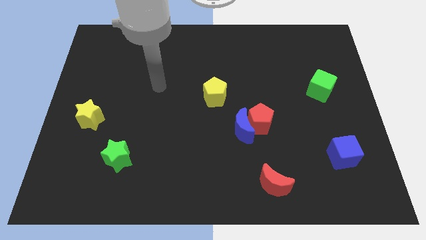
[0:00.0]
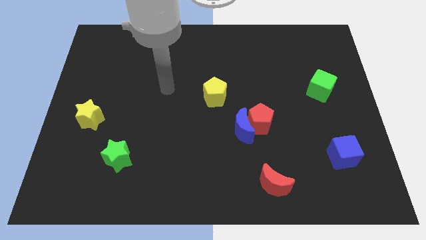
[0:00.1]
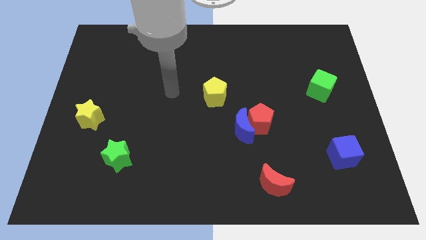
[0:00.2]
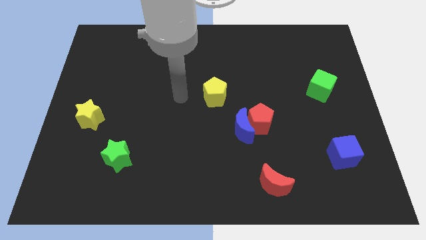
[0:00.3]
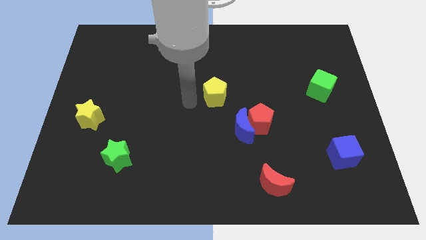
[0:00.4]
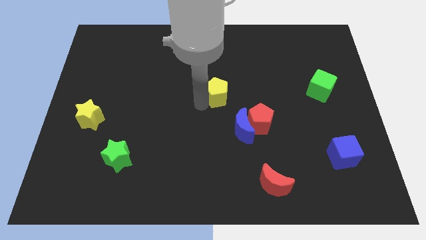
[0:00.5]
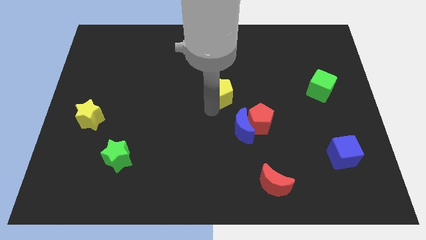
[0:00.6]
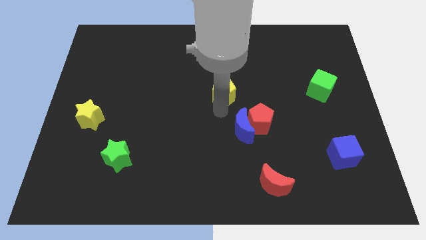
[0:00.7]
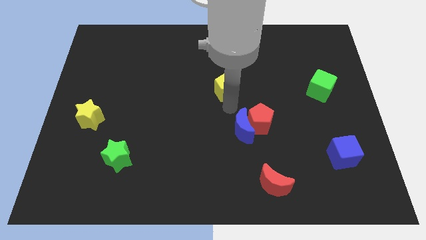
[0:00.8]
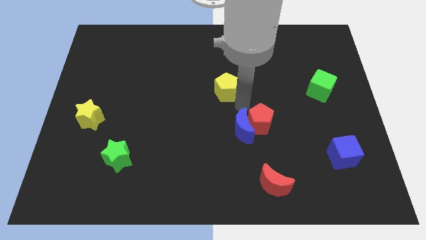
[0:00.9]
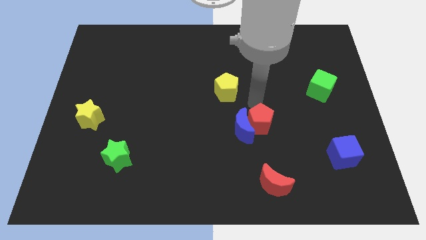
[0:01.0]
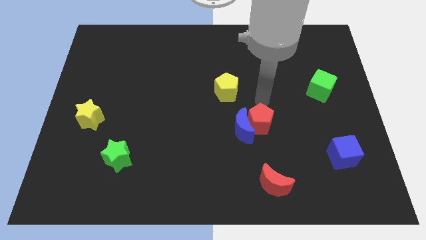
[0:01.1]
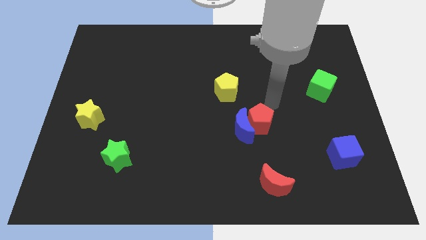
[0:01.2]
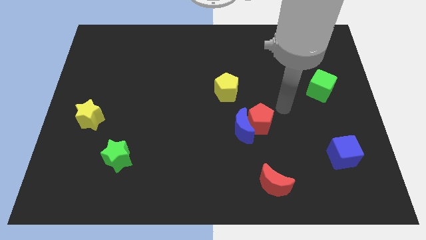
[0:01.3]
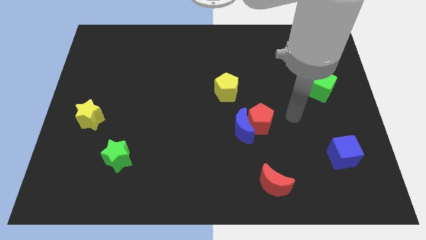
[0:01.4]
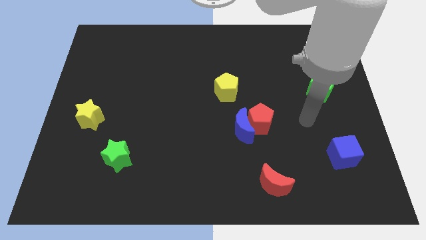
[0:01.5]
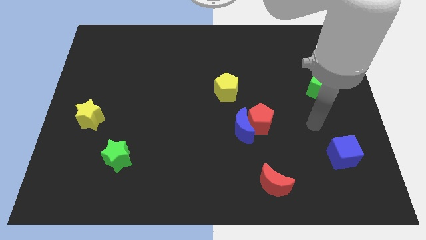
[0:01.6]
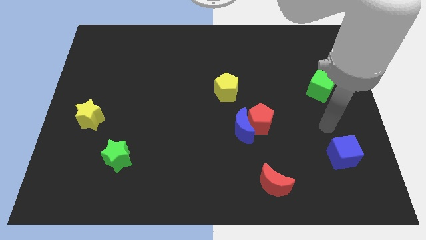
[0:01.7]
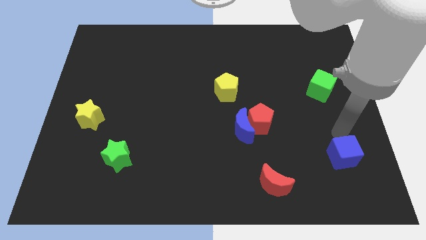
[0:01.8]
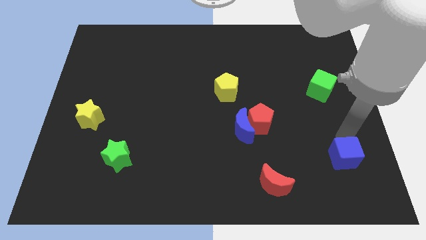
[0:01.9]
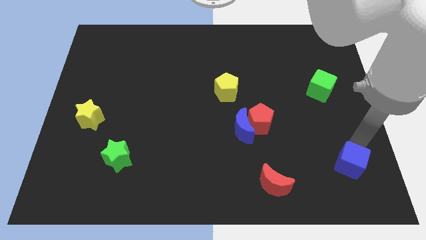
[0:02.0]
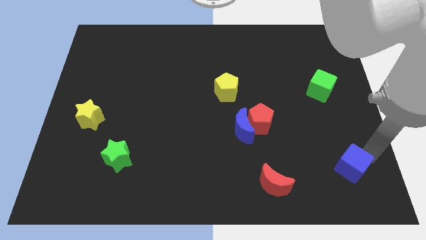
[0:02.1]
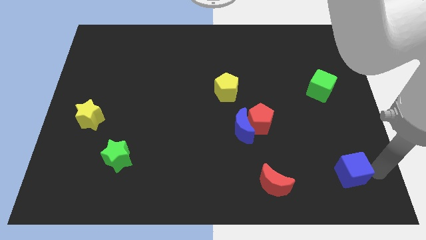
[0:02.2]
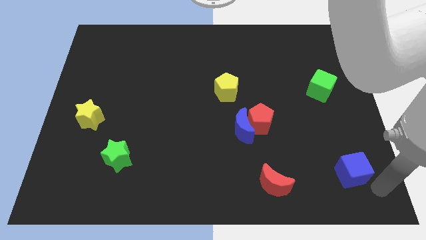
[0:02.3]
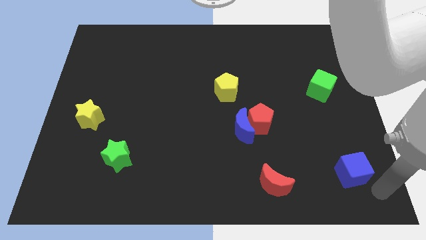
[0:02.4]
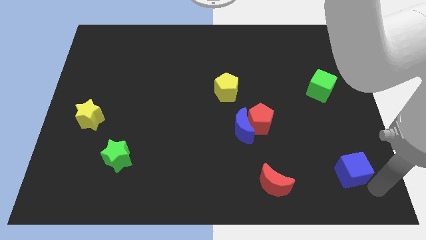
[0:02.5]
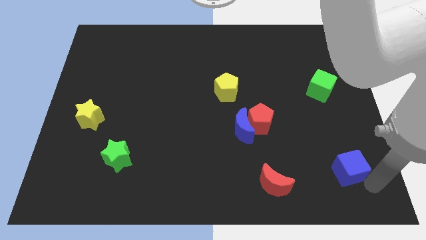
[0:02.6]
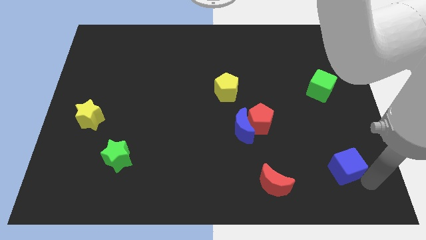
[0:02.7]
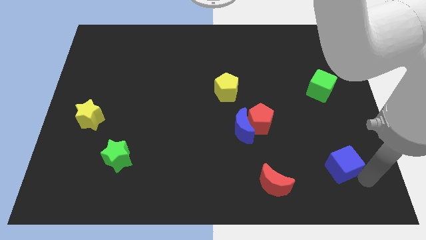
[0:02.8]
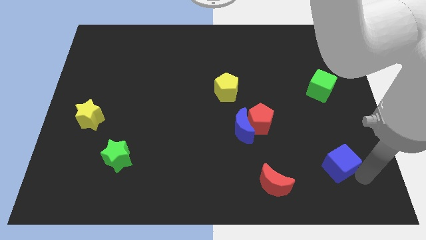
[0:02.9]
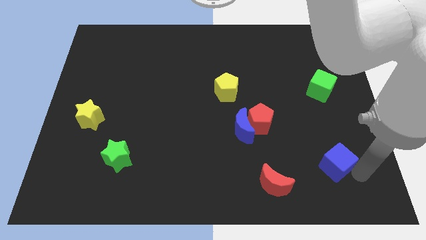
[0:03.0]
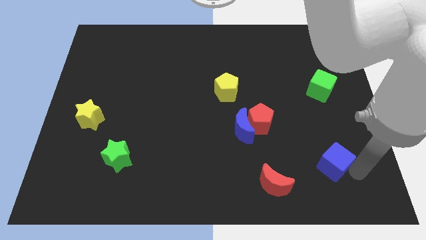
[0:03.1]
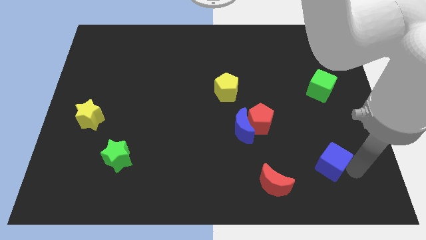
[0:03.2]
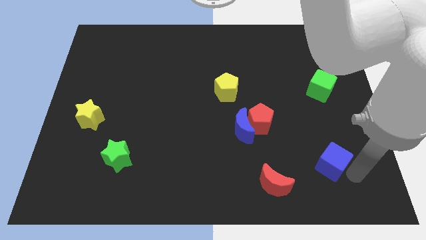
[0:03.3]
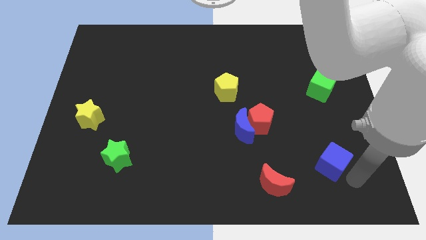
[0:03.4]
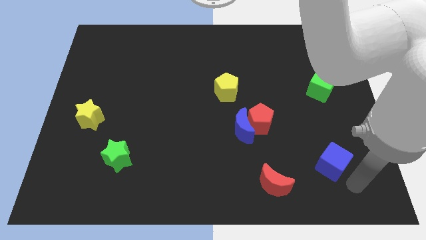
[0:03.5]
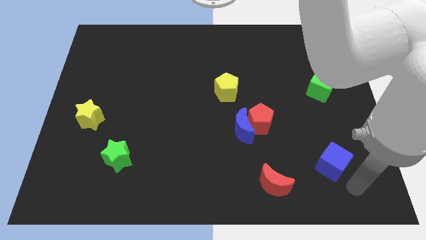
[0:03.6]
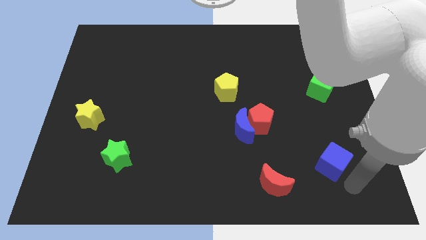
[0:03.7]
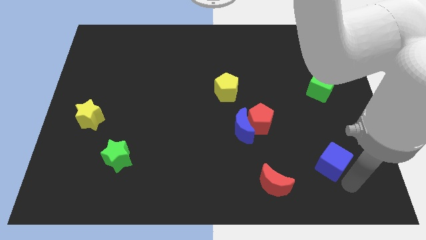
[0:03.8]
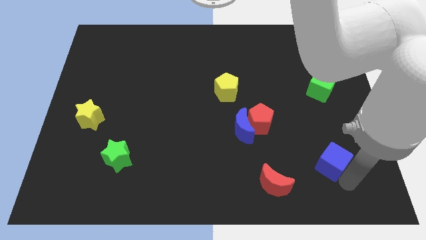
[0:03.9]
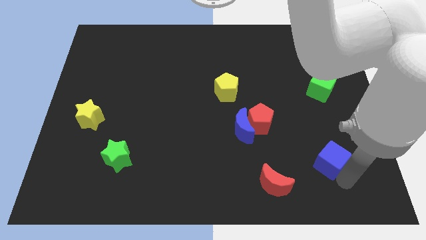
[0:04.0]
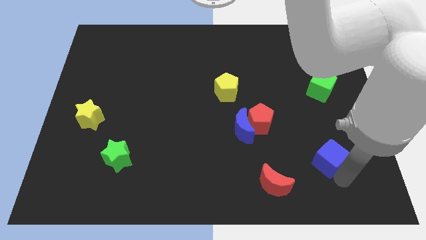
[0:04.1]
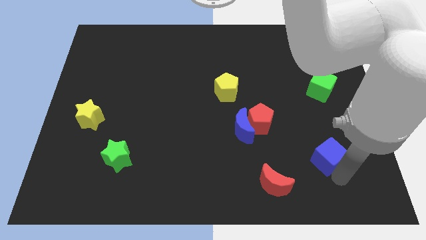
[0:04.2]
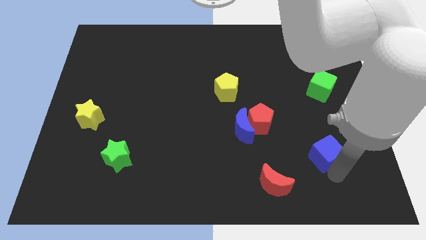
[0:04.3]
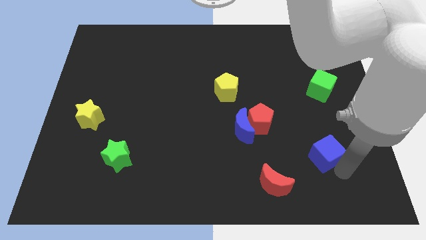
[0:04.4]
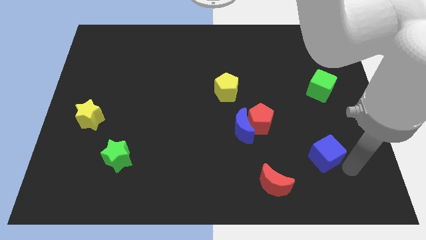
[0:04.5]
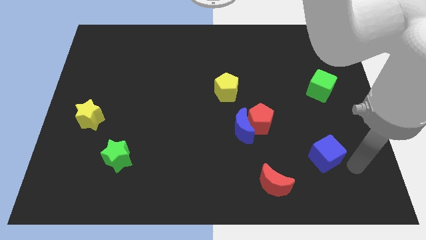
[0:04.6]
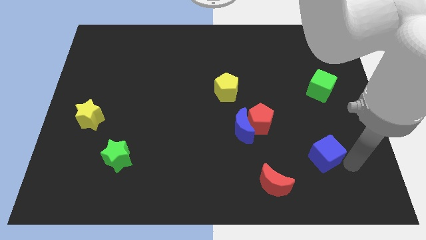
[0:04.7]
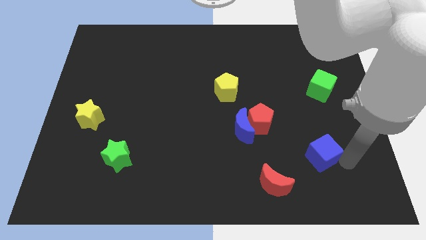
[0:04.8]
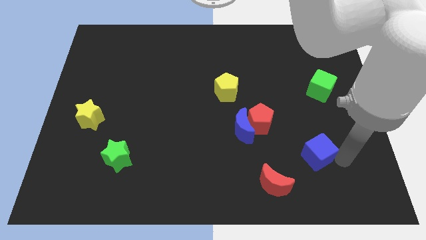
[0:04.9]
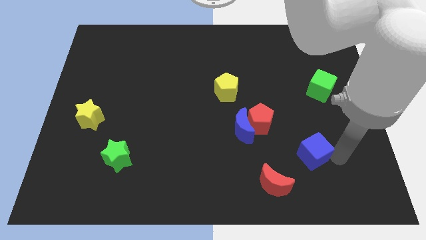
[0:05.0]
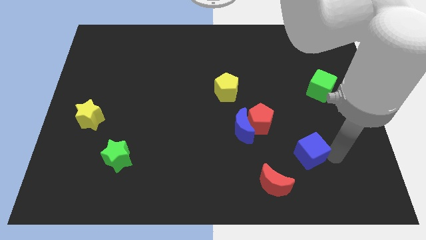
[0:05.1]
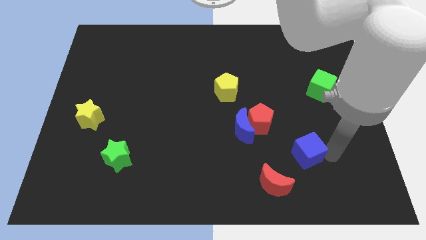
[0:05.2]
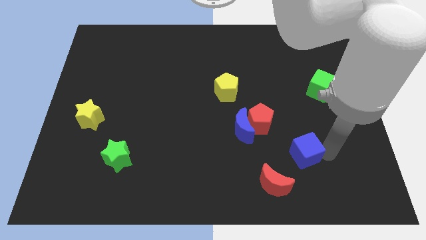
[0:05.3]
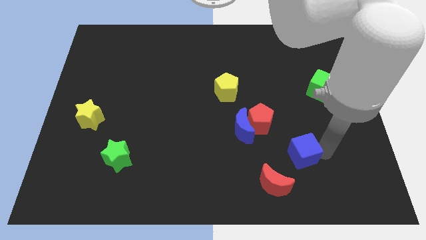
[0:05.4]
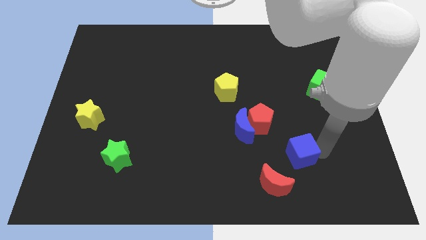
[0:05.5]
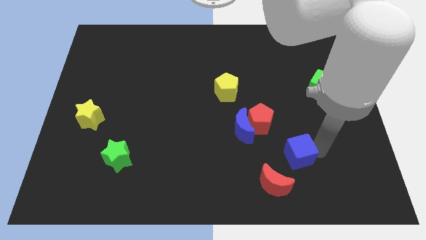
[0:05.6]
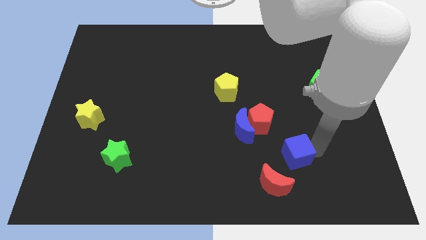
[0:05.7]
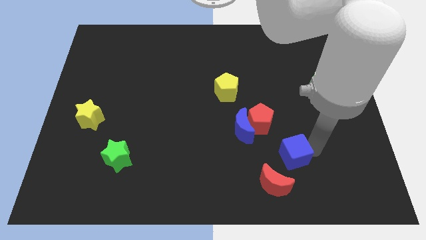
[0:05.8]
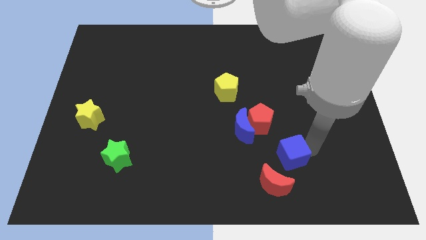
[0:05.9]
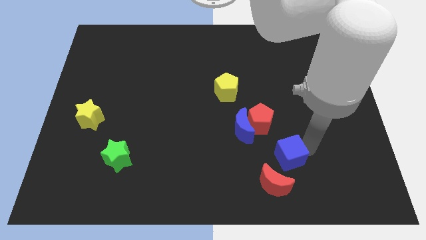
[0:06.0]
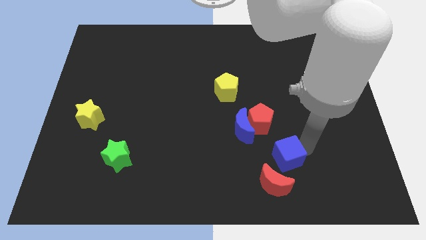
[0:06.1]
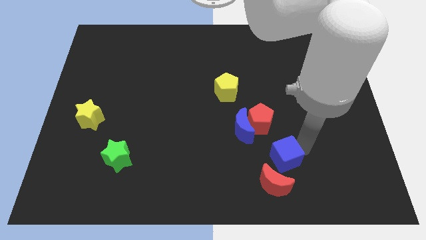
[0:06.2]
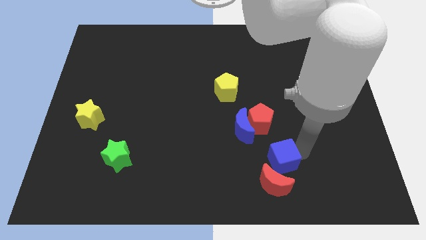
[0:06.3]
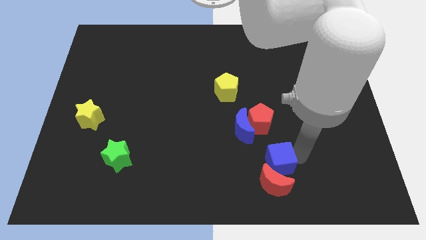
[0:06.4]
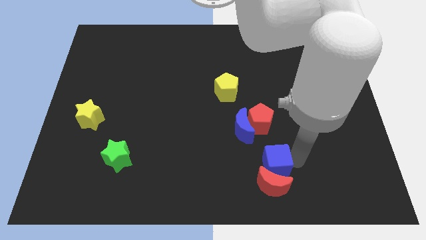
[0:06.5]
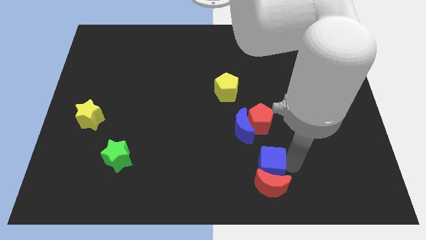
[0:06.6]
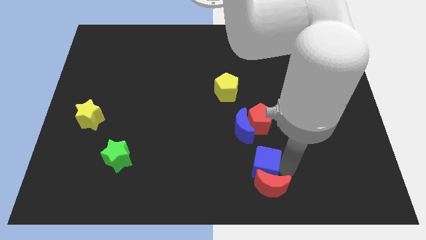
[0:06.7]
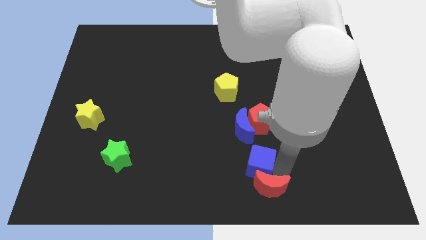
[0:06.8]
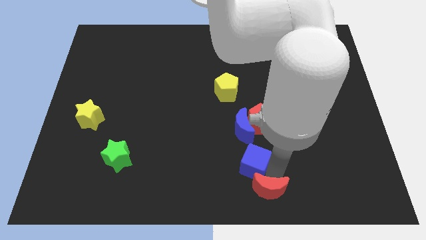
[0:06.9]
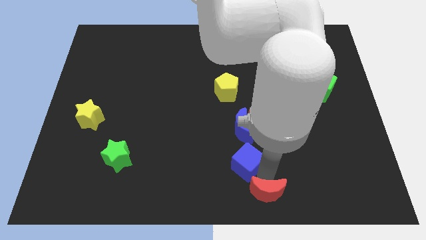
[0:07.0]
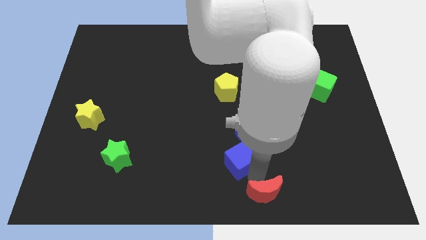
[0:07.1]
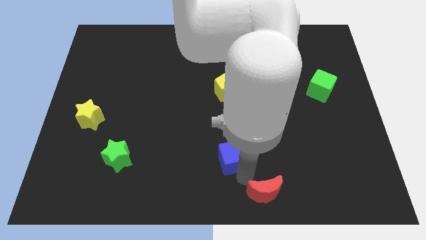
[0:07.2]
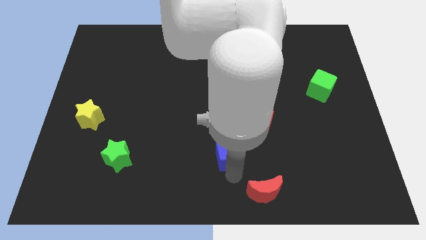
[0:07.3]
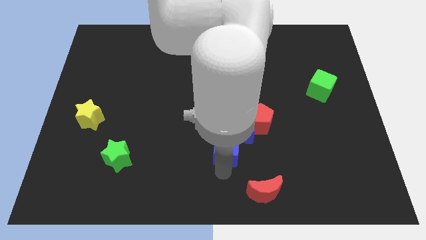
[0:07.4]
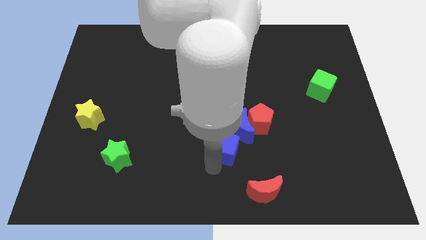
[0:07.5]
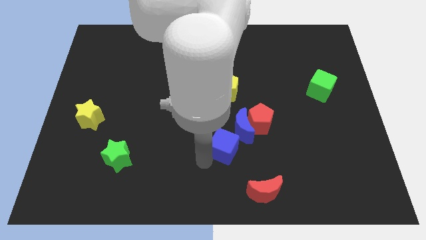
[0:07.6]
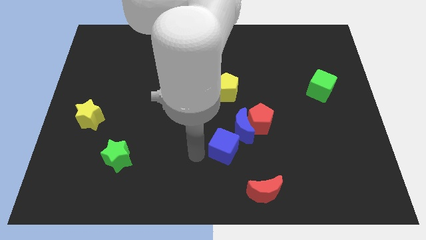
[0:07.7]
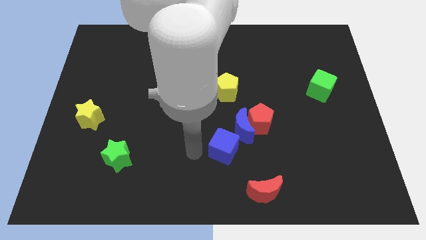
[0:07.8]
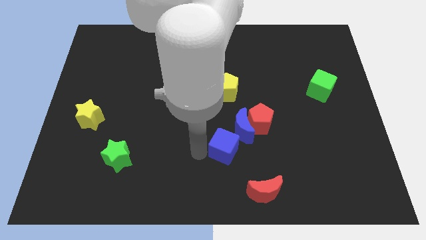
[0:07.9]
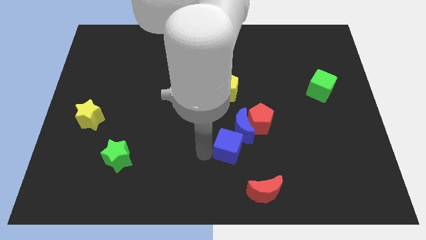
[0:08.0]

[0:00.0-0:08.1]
put the blue cube close to the blue moon
